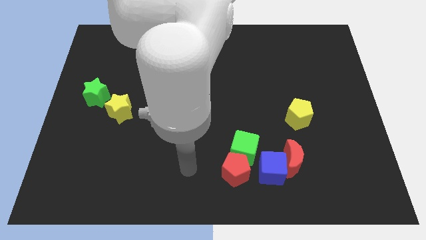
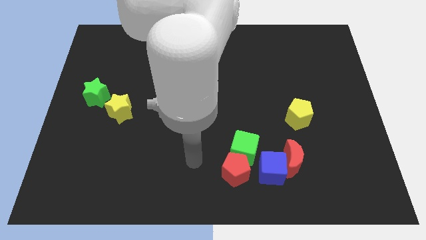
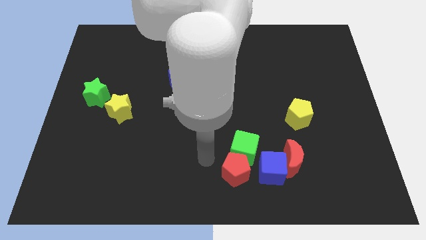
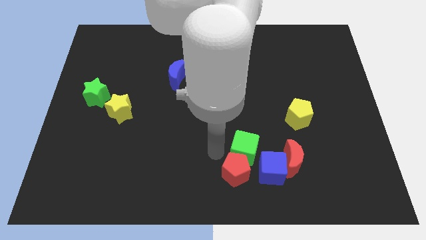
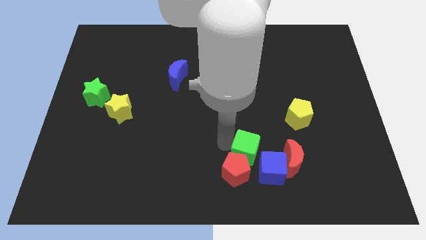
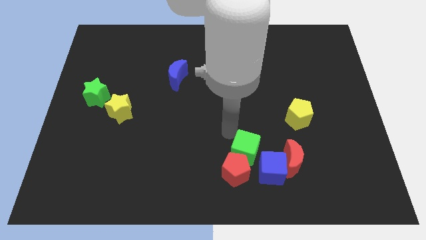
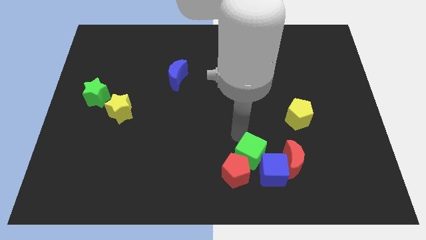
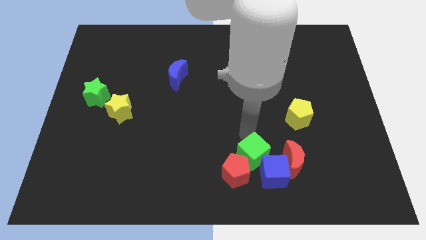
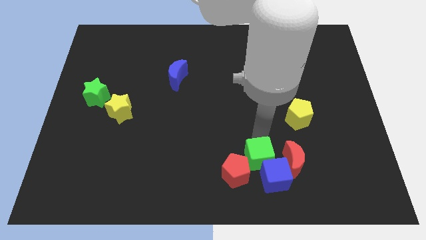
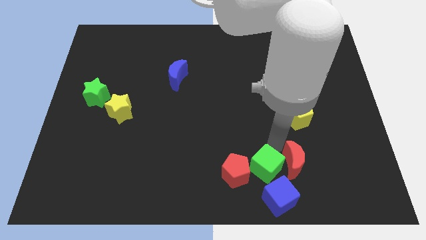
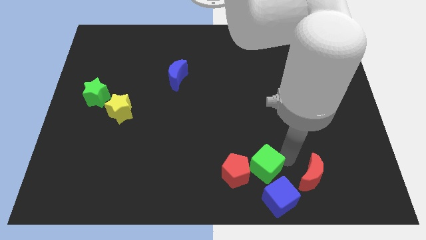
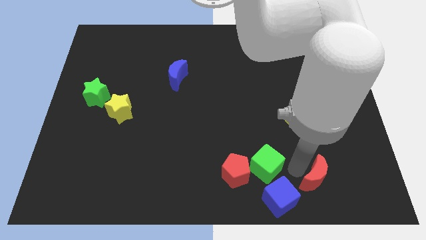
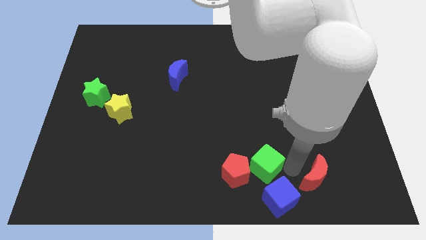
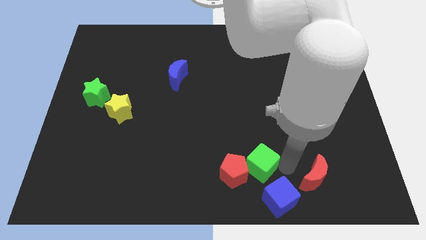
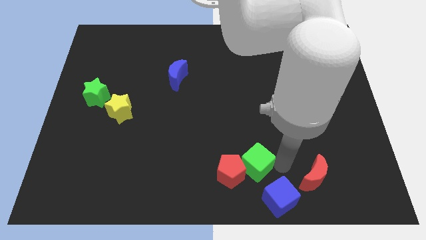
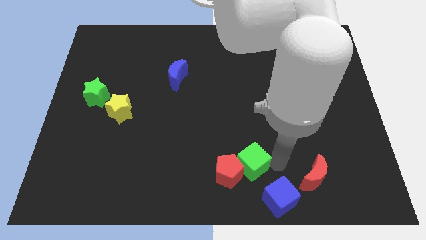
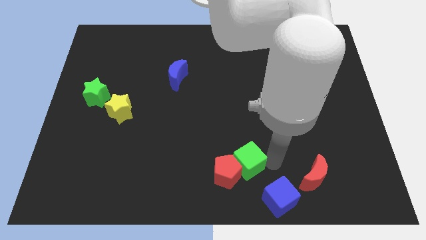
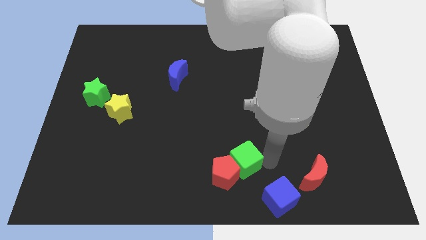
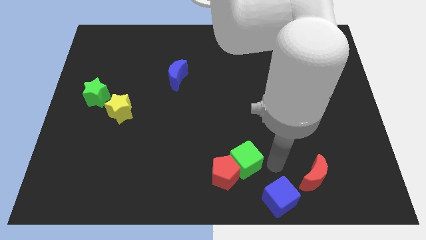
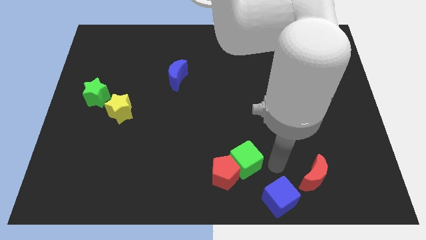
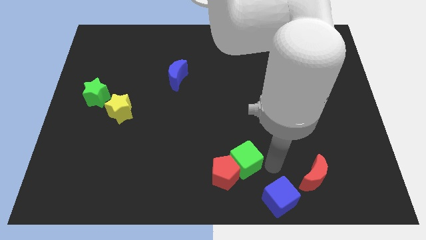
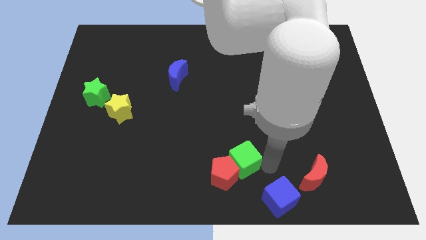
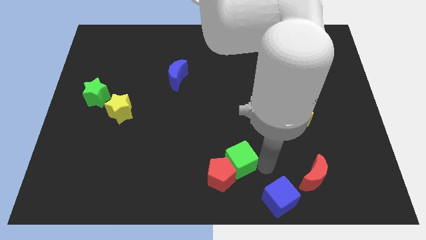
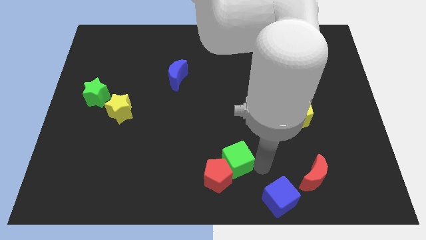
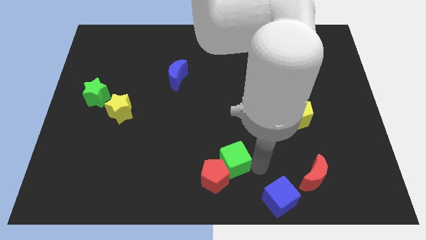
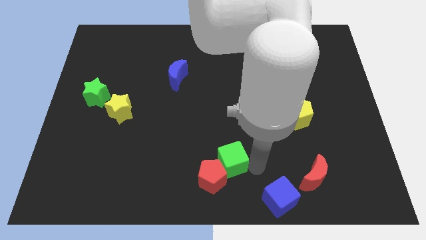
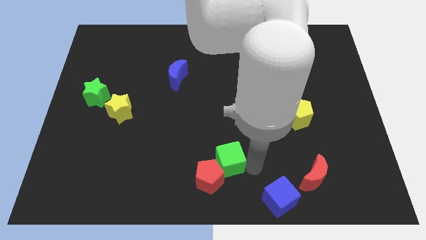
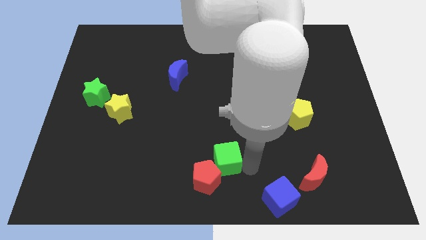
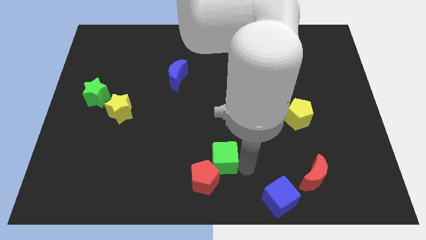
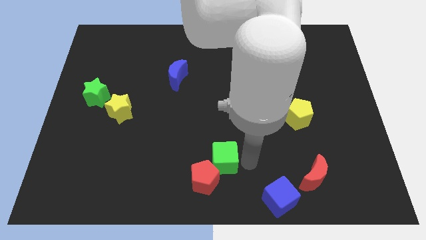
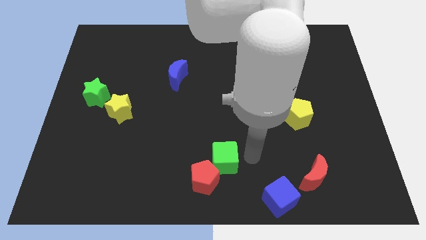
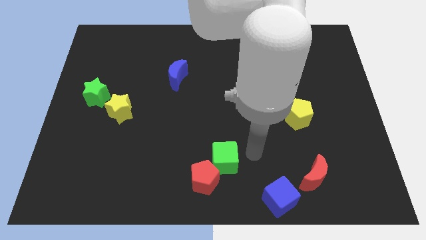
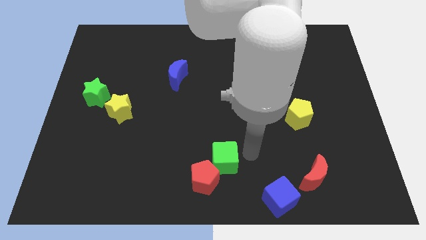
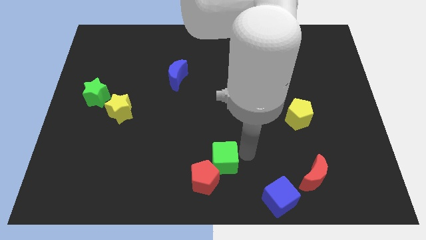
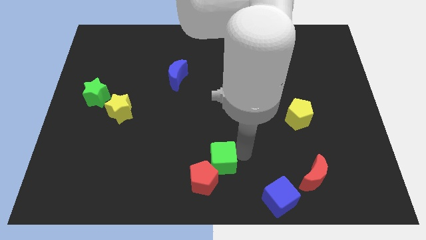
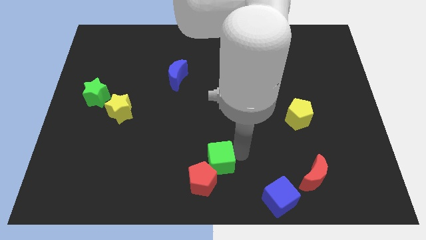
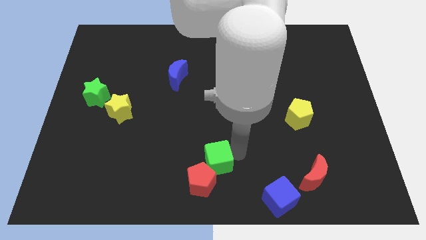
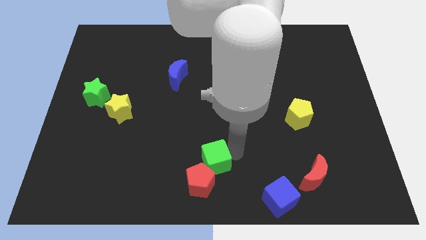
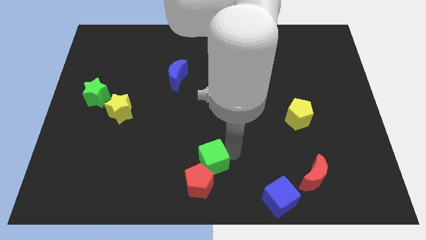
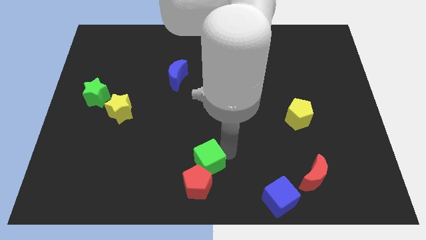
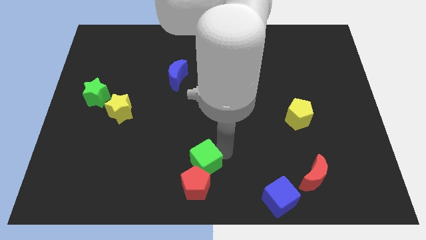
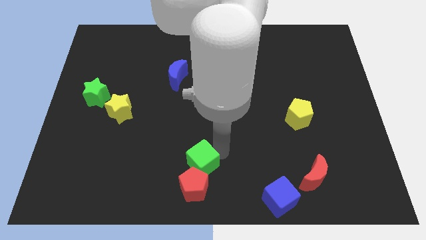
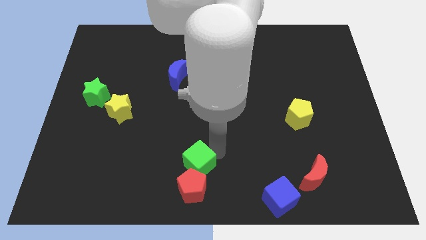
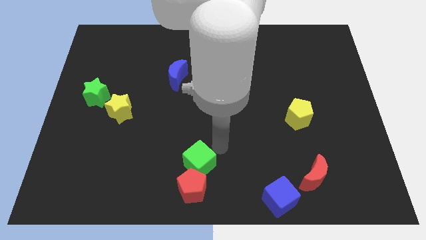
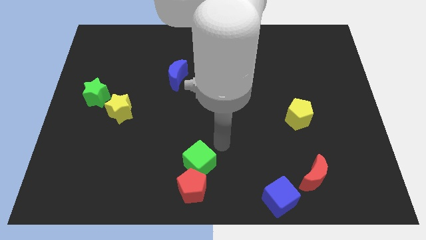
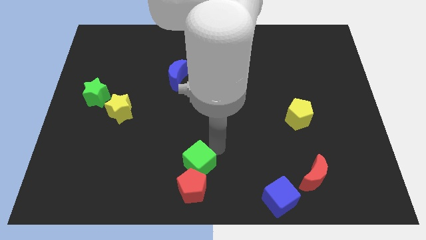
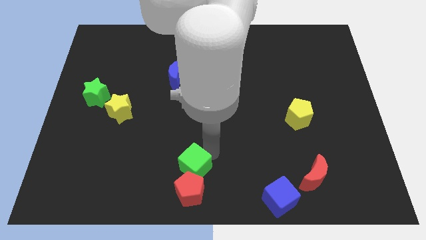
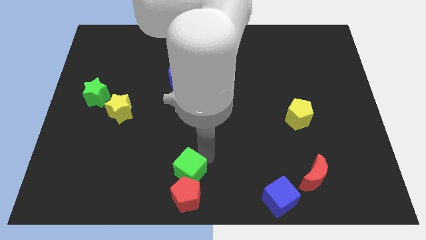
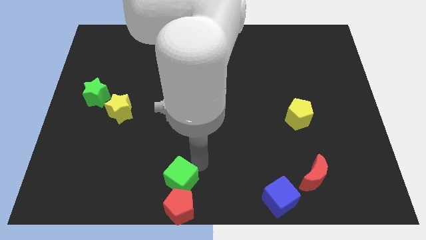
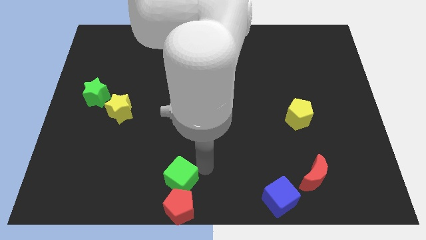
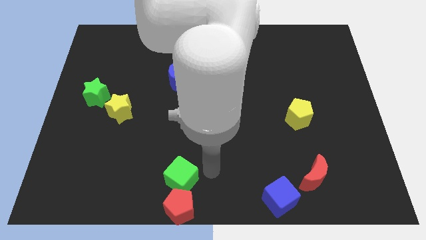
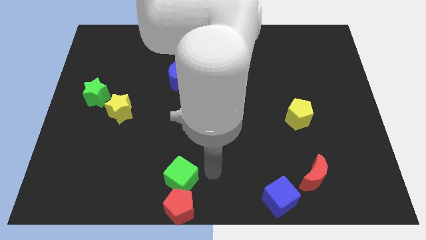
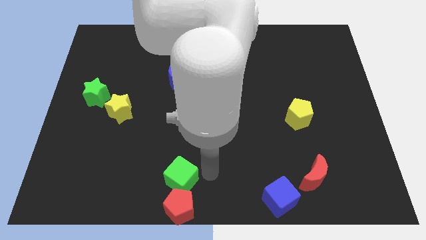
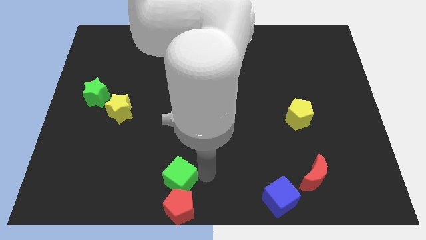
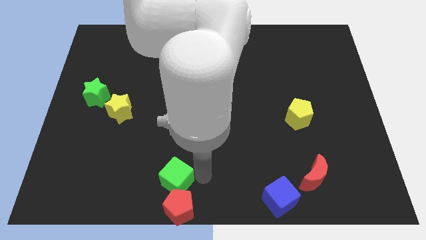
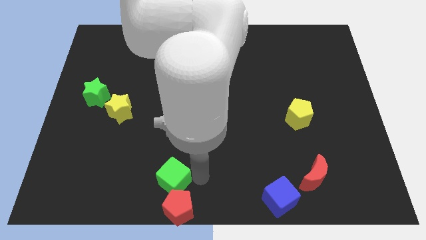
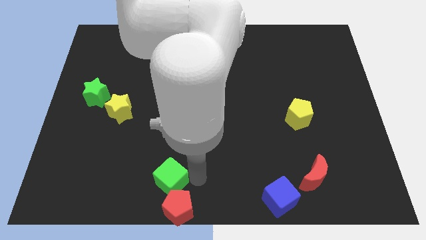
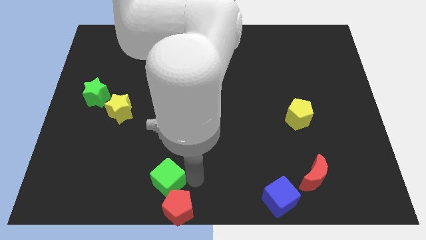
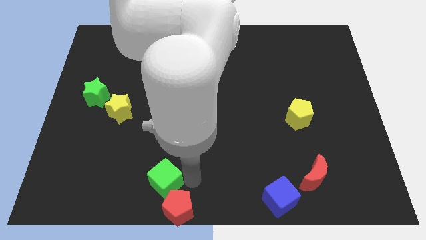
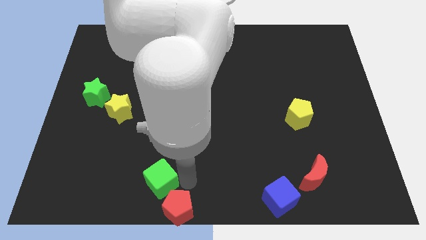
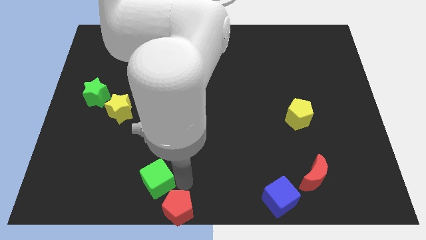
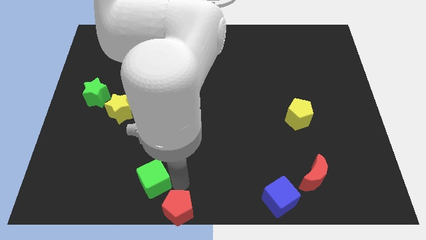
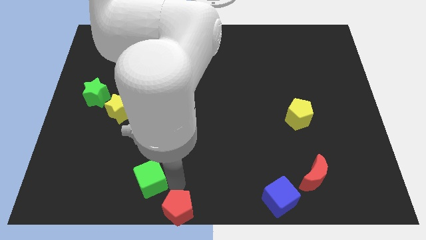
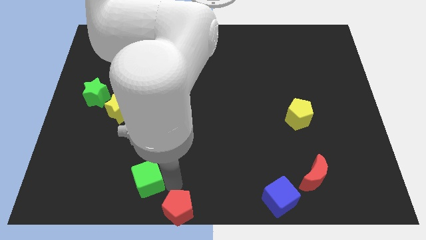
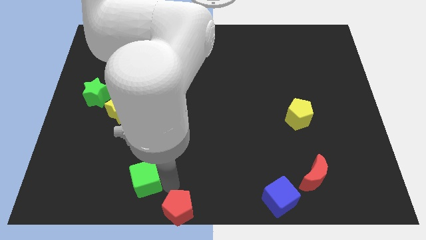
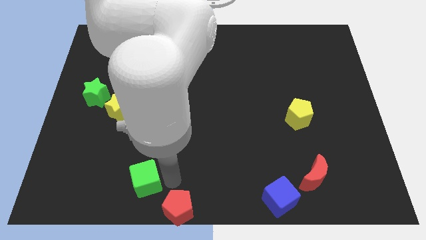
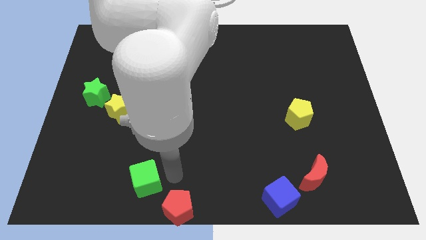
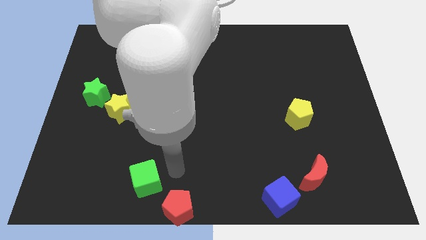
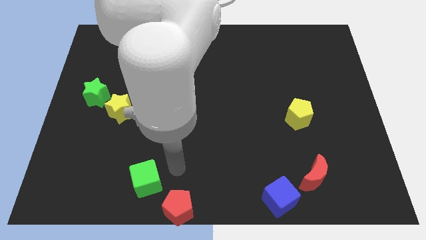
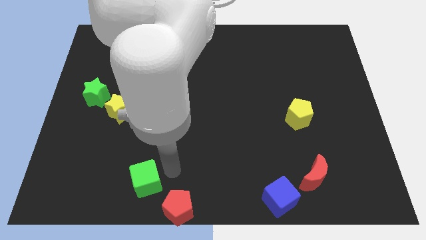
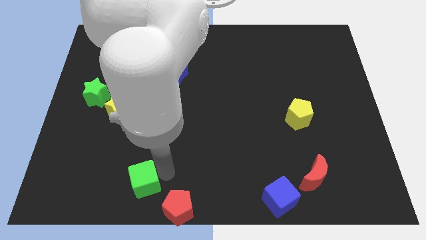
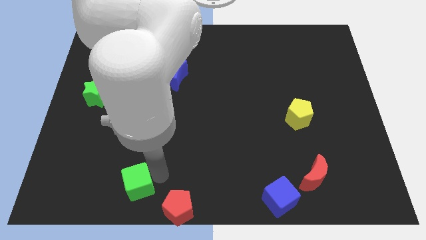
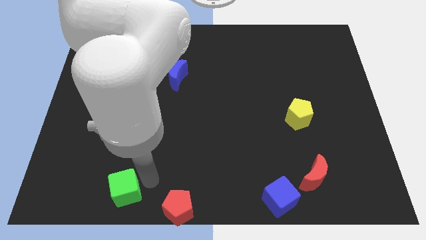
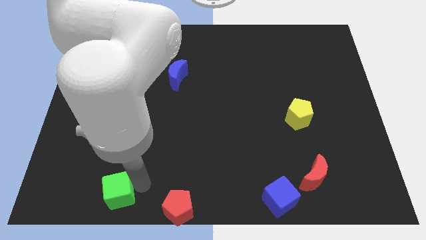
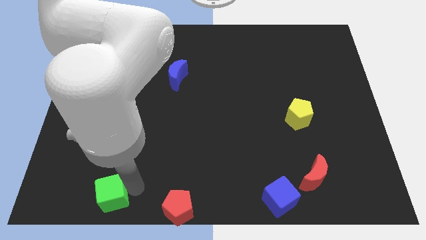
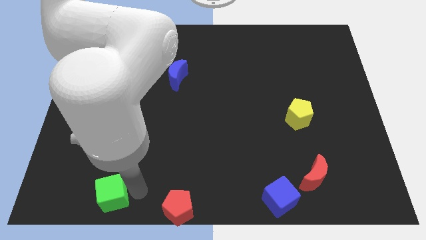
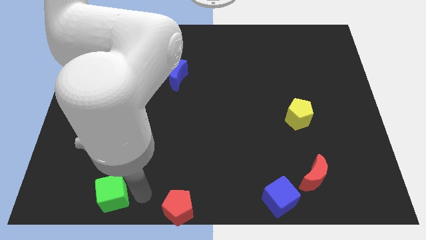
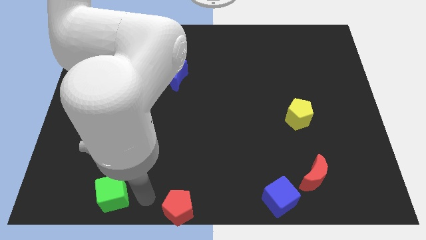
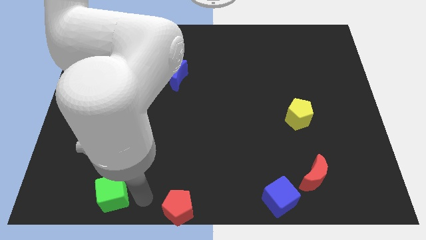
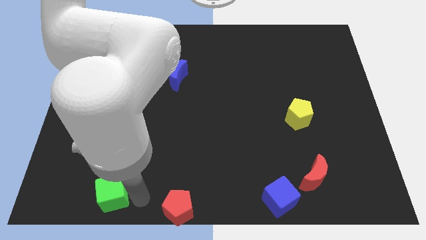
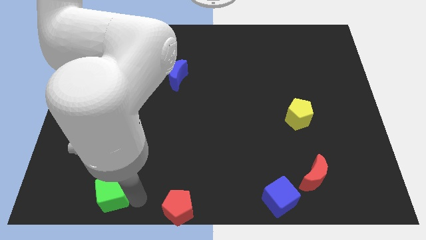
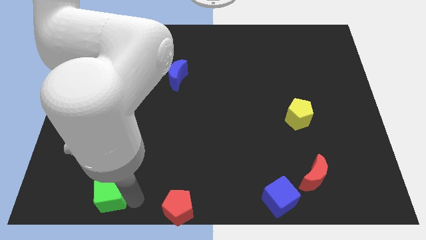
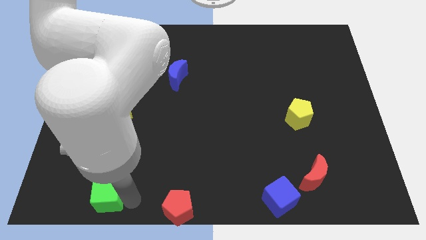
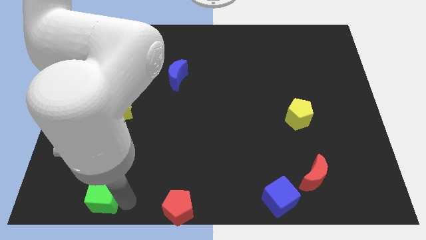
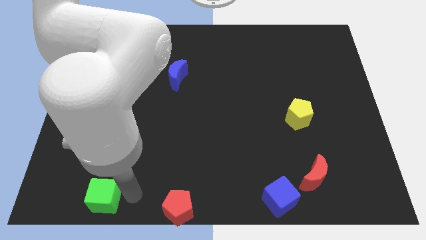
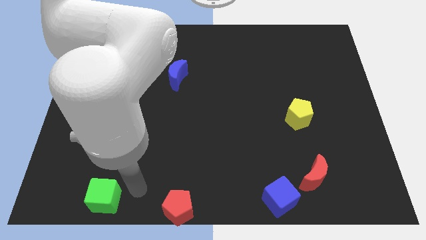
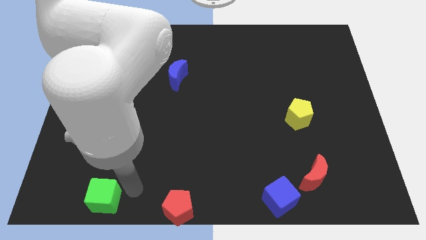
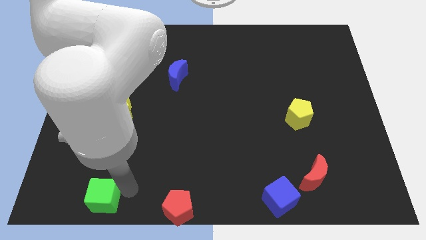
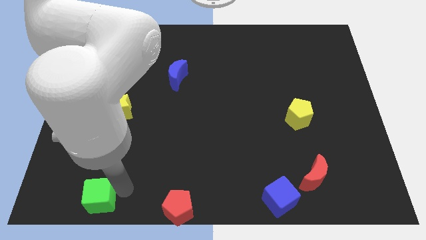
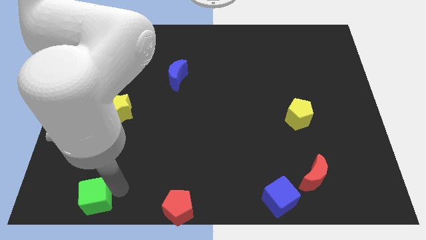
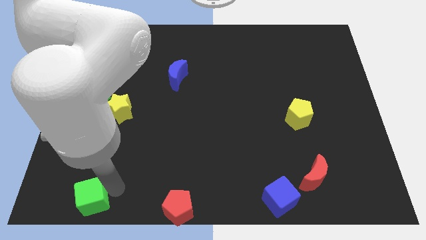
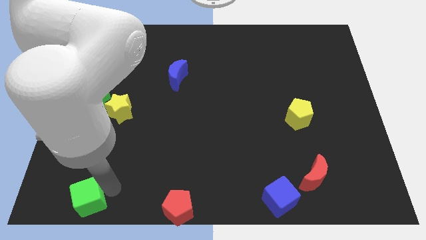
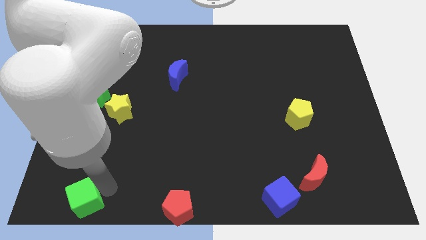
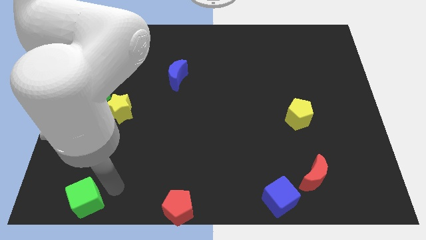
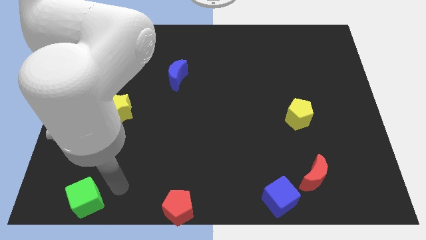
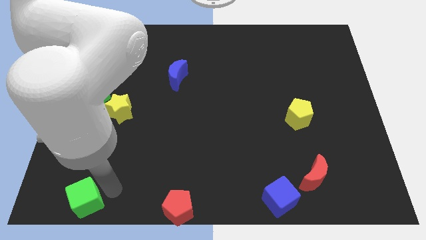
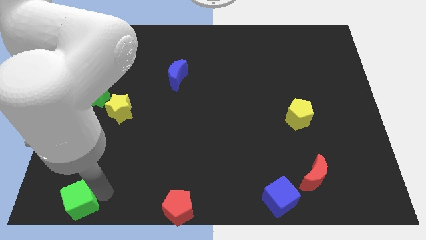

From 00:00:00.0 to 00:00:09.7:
push the green cube to the lower left corner
